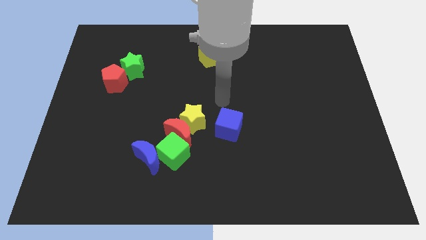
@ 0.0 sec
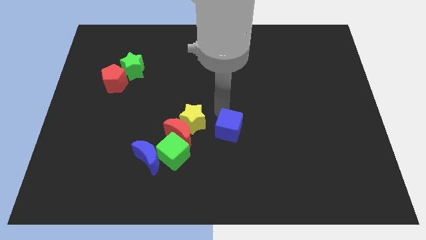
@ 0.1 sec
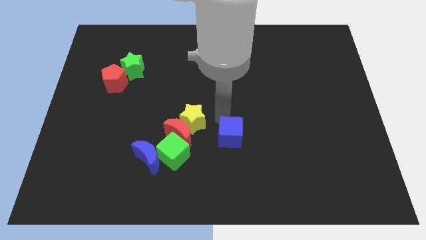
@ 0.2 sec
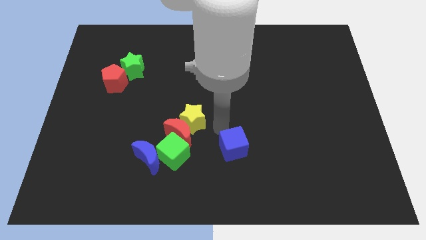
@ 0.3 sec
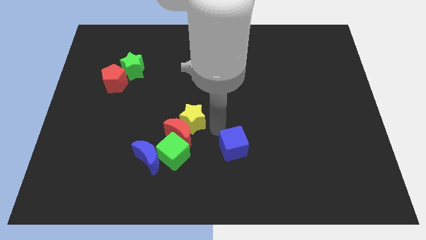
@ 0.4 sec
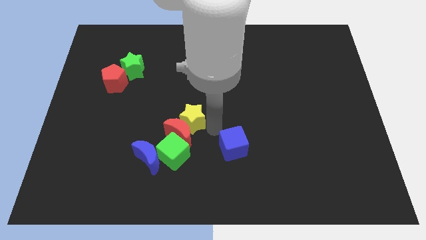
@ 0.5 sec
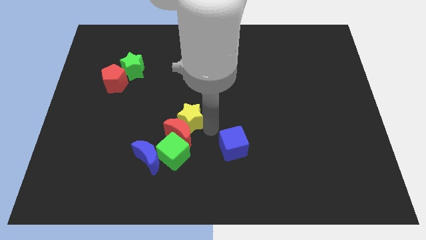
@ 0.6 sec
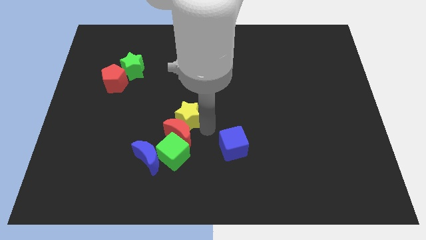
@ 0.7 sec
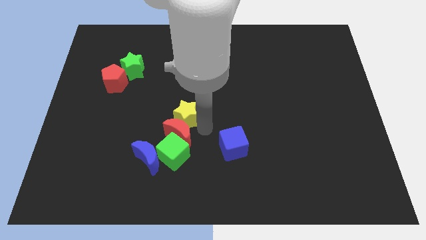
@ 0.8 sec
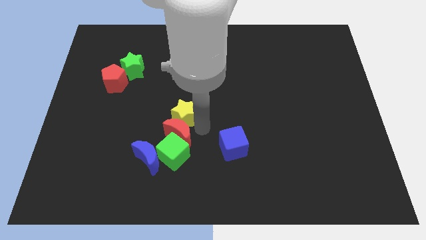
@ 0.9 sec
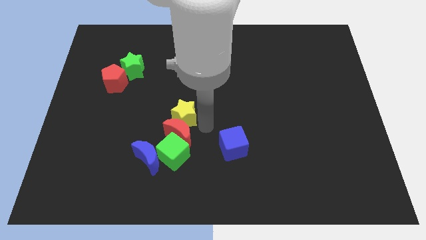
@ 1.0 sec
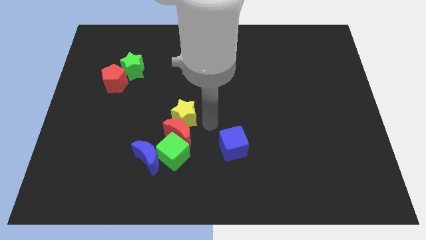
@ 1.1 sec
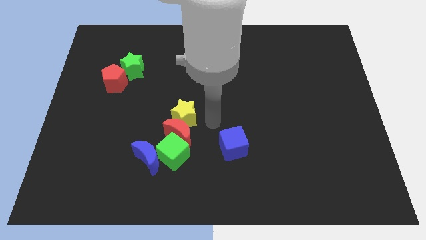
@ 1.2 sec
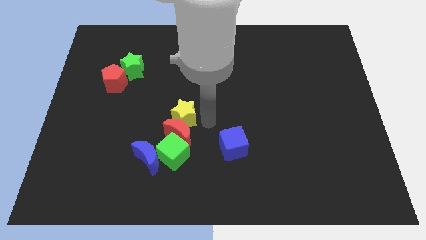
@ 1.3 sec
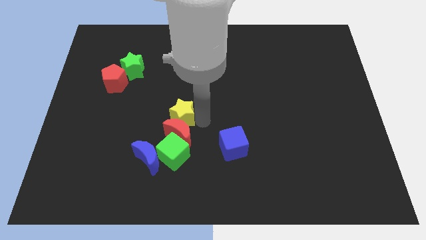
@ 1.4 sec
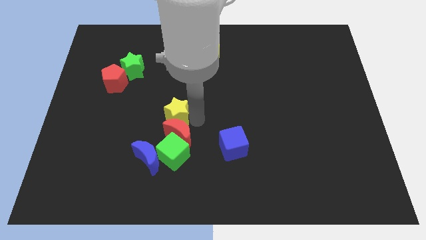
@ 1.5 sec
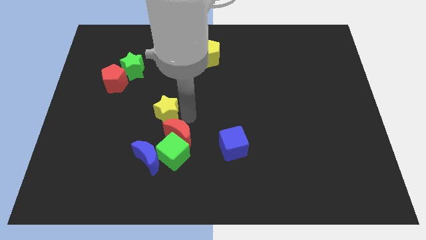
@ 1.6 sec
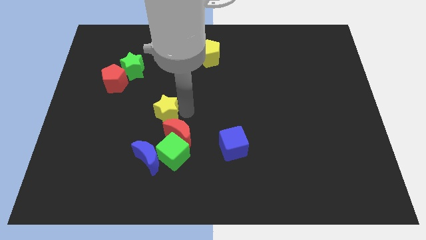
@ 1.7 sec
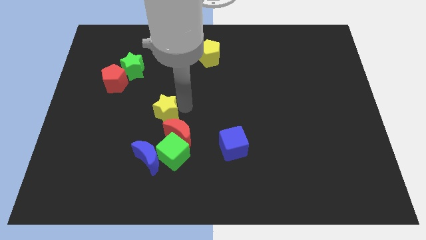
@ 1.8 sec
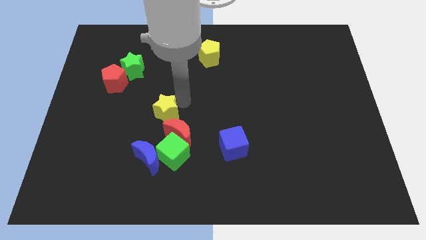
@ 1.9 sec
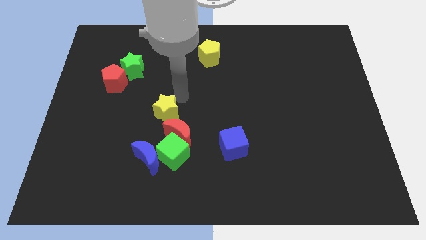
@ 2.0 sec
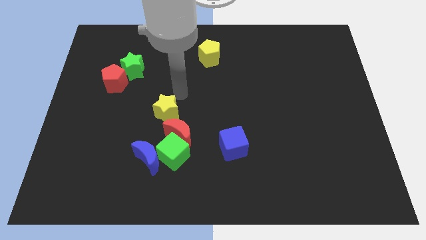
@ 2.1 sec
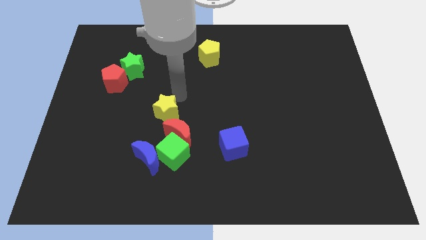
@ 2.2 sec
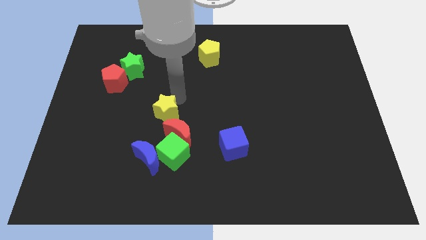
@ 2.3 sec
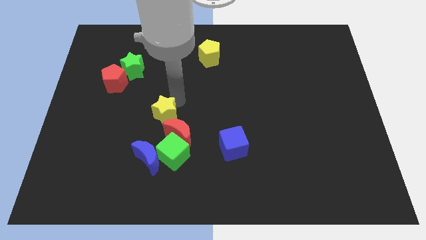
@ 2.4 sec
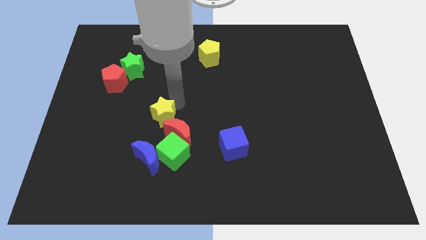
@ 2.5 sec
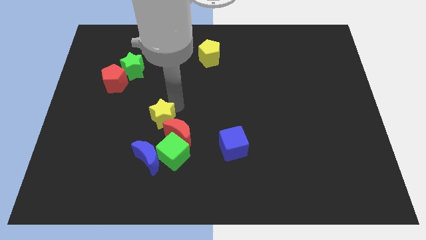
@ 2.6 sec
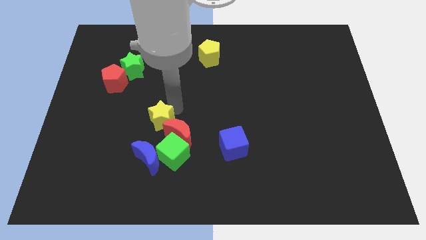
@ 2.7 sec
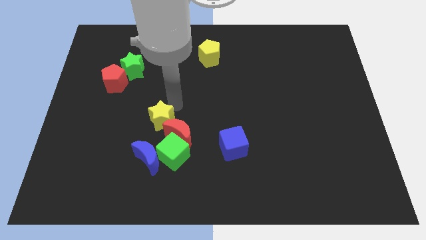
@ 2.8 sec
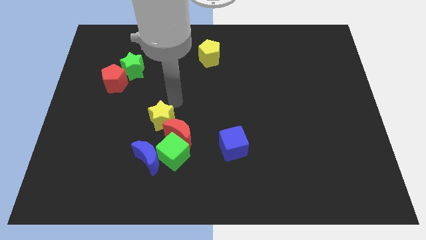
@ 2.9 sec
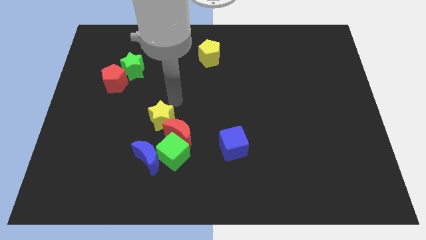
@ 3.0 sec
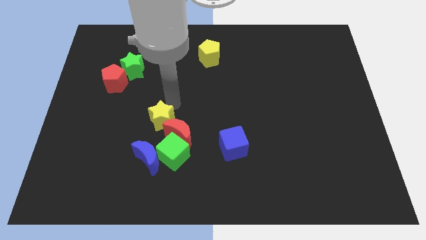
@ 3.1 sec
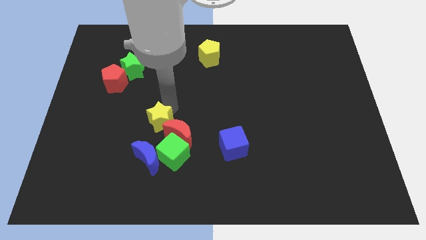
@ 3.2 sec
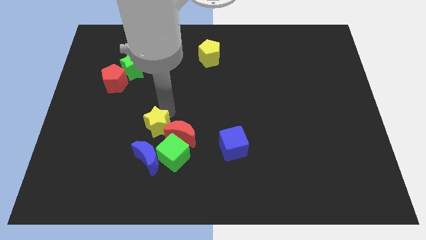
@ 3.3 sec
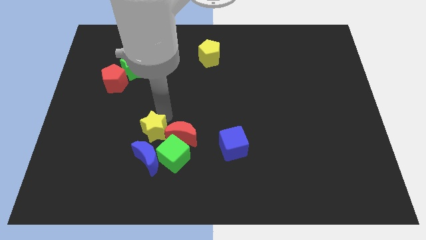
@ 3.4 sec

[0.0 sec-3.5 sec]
push the yellow star down and then to the left somewhat

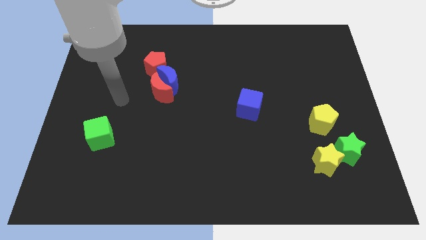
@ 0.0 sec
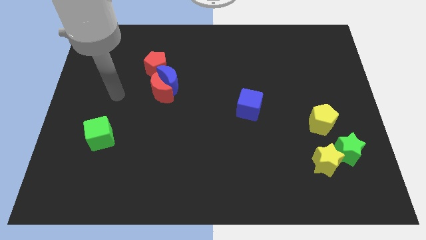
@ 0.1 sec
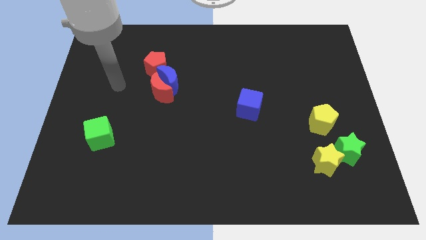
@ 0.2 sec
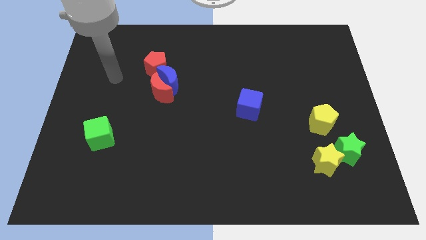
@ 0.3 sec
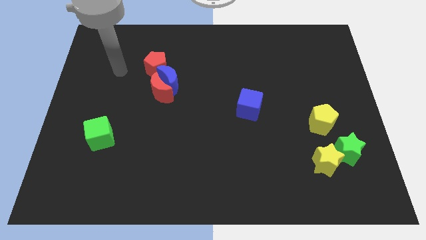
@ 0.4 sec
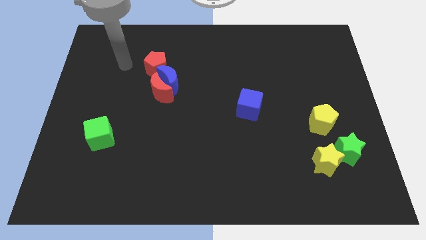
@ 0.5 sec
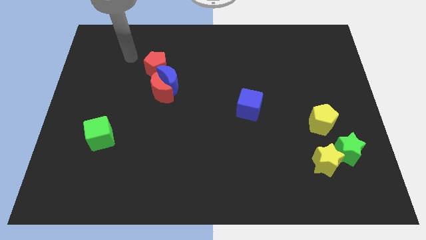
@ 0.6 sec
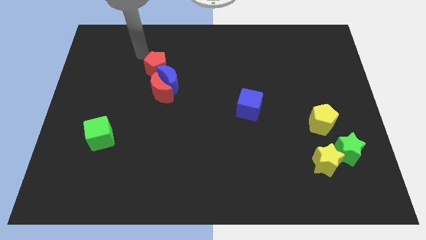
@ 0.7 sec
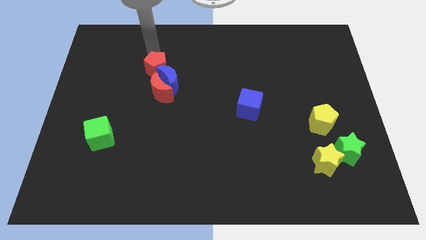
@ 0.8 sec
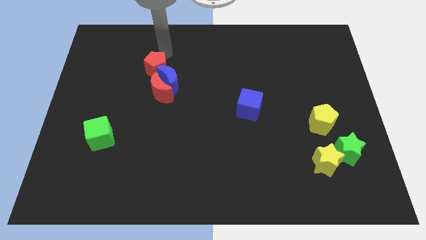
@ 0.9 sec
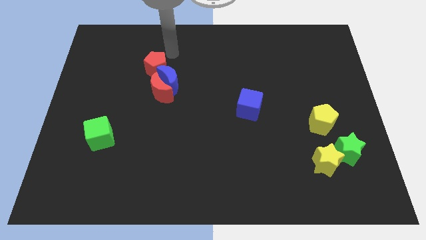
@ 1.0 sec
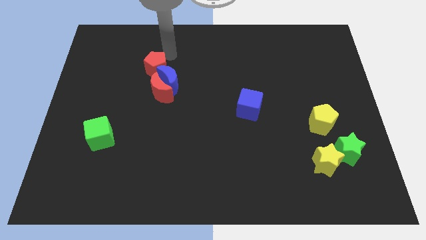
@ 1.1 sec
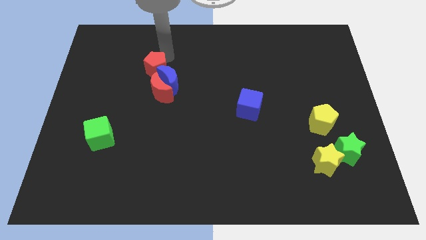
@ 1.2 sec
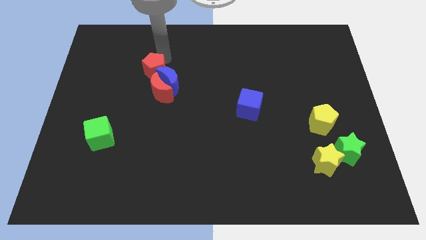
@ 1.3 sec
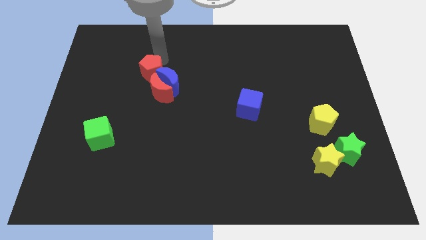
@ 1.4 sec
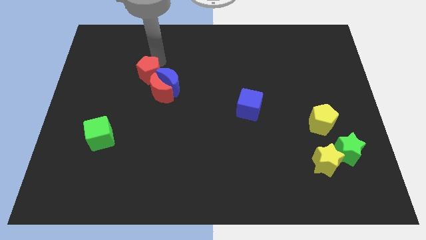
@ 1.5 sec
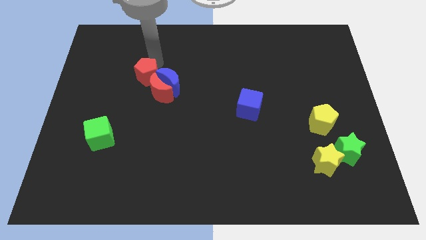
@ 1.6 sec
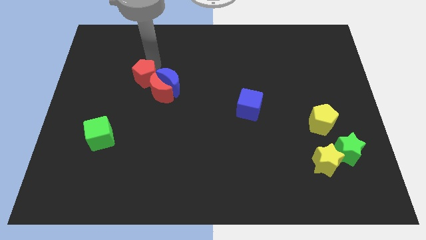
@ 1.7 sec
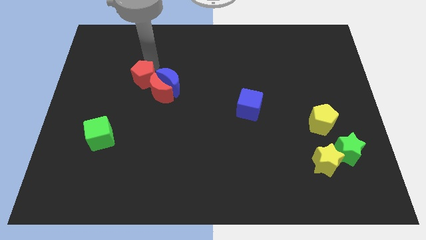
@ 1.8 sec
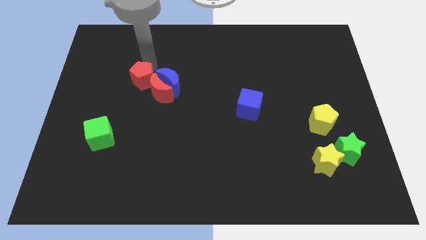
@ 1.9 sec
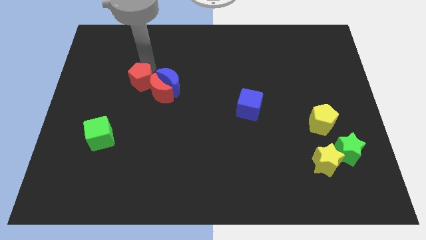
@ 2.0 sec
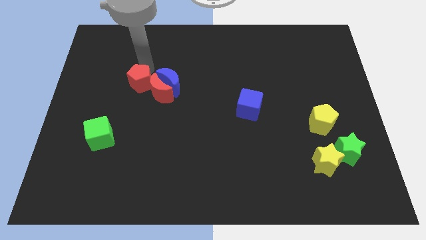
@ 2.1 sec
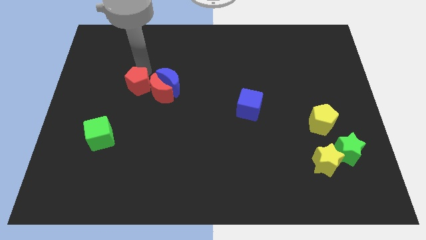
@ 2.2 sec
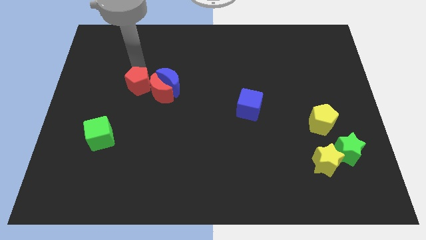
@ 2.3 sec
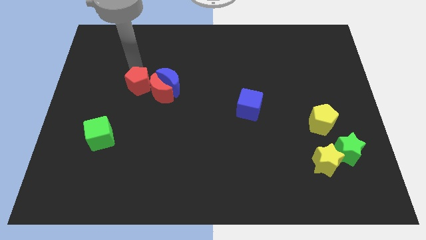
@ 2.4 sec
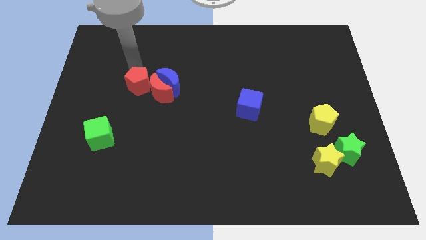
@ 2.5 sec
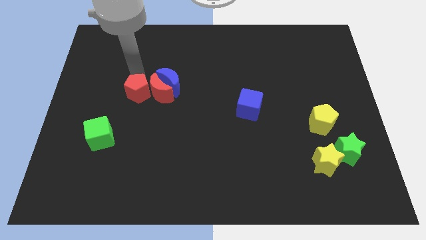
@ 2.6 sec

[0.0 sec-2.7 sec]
move the red pentagon downwards slightly

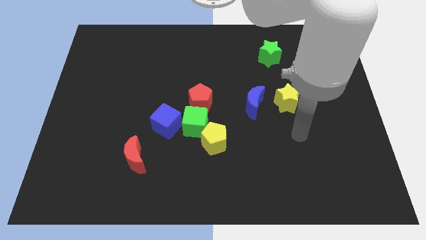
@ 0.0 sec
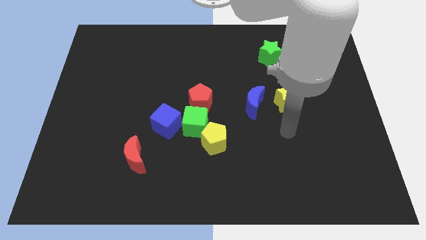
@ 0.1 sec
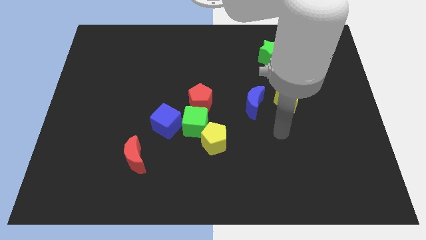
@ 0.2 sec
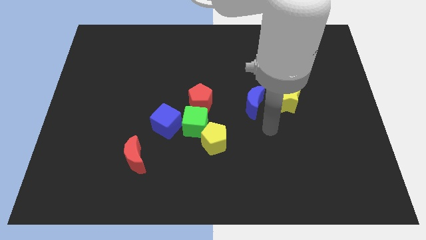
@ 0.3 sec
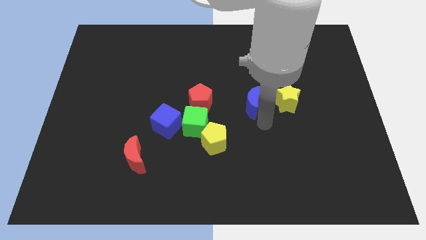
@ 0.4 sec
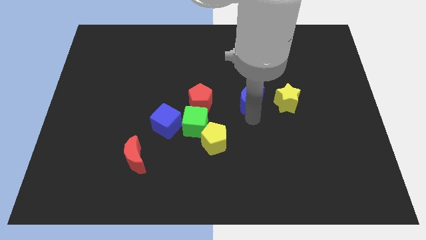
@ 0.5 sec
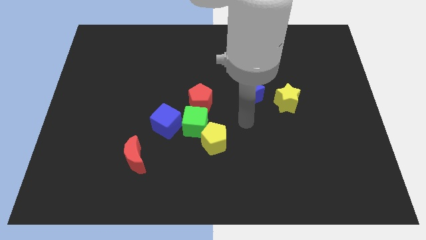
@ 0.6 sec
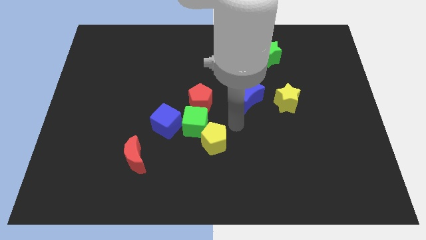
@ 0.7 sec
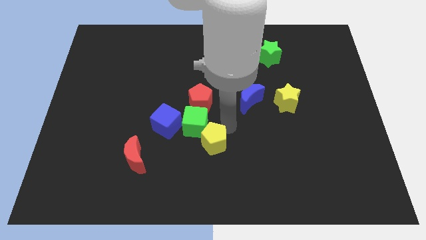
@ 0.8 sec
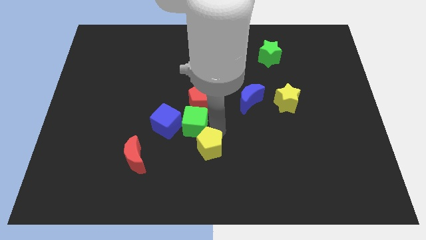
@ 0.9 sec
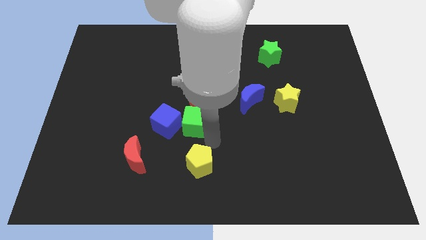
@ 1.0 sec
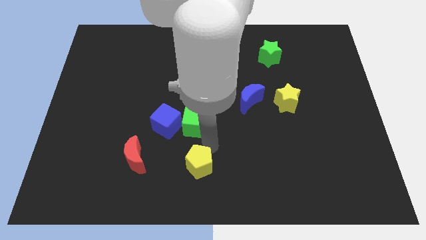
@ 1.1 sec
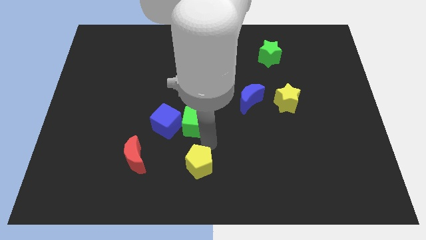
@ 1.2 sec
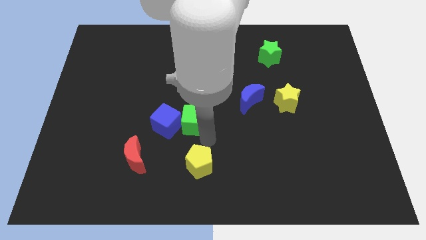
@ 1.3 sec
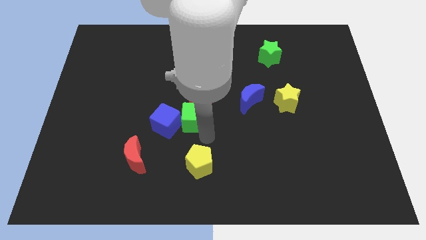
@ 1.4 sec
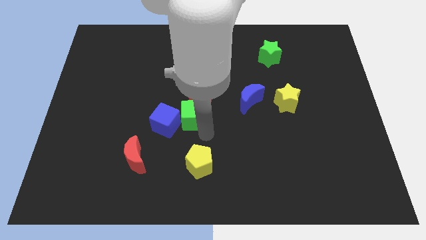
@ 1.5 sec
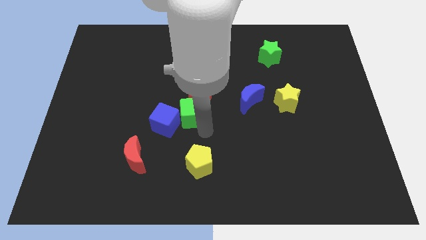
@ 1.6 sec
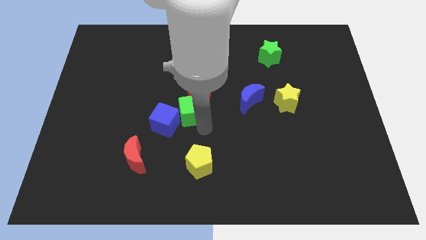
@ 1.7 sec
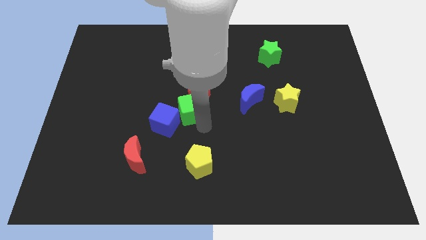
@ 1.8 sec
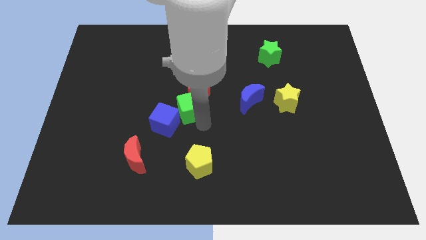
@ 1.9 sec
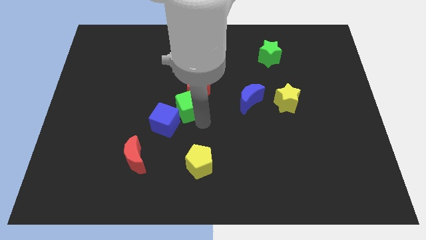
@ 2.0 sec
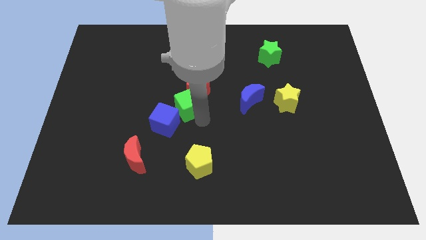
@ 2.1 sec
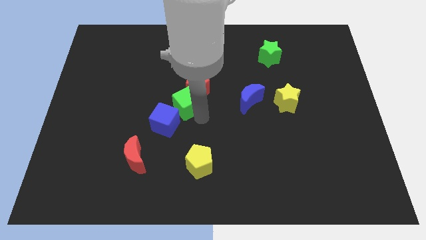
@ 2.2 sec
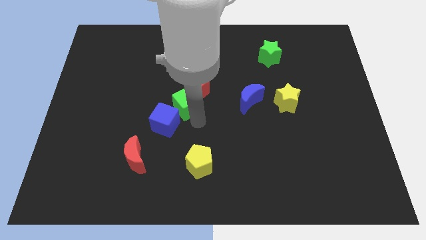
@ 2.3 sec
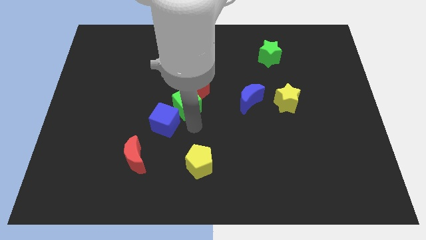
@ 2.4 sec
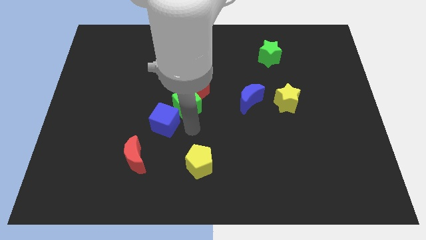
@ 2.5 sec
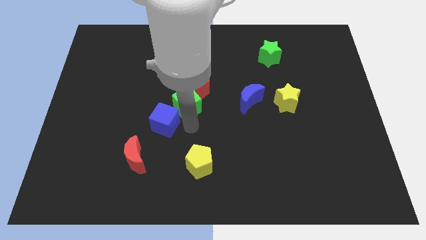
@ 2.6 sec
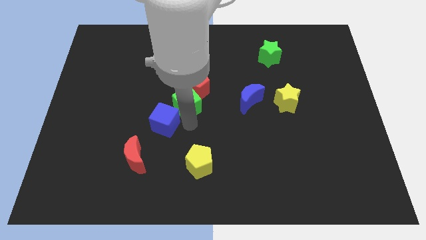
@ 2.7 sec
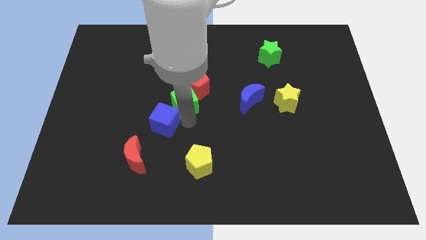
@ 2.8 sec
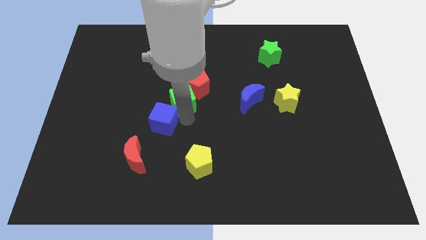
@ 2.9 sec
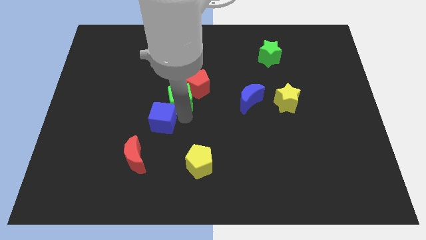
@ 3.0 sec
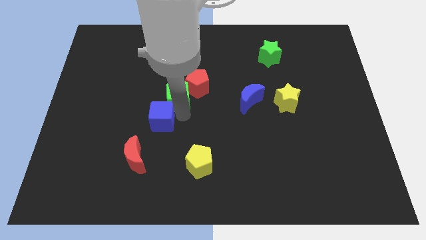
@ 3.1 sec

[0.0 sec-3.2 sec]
move the green cube up slightly
